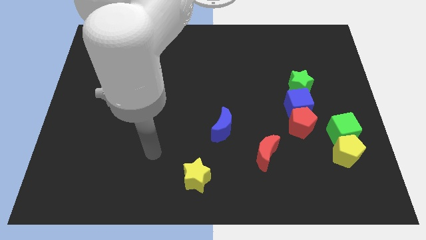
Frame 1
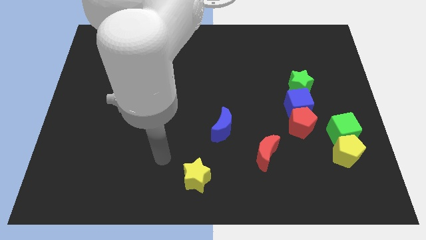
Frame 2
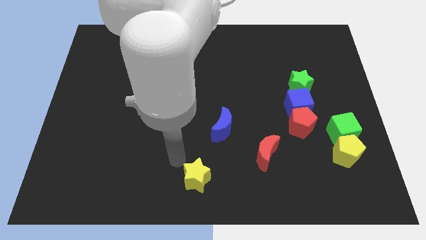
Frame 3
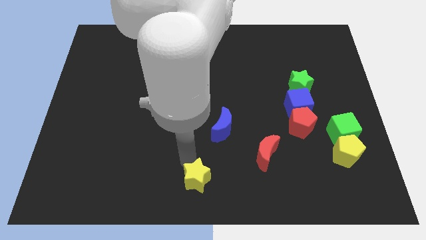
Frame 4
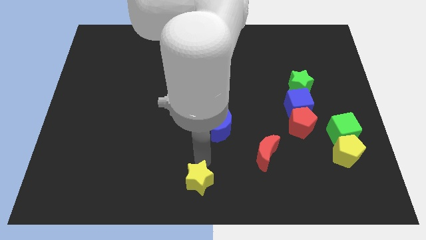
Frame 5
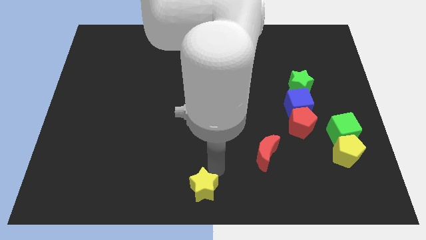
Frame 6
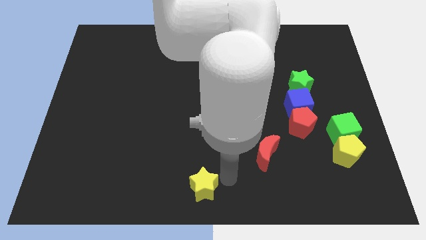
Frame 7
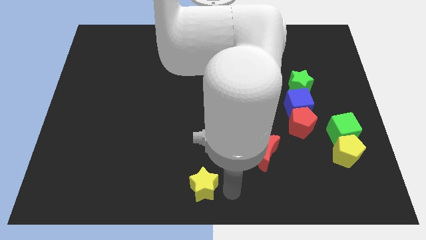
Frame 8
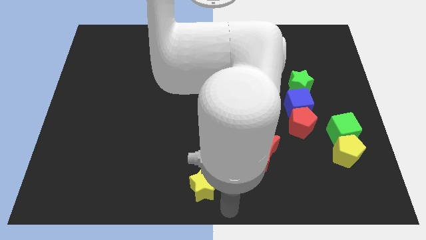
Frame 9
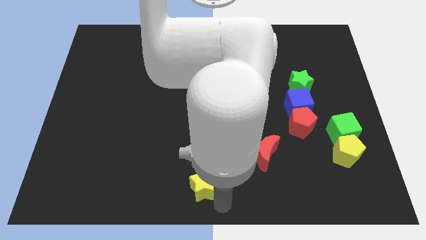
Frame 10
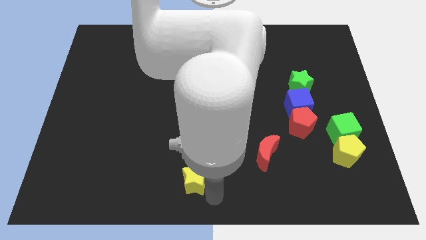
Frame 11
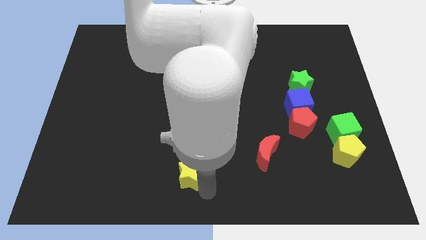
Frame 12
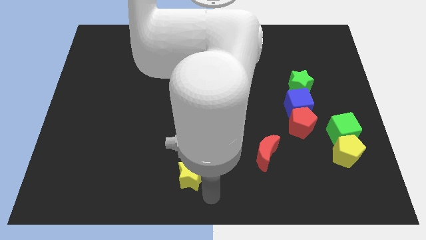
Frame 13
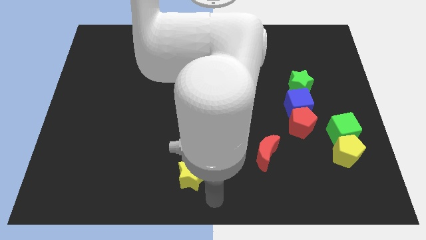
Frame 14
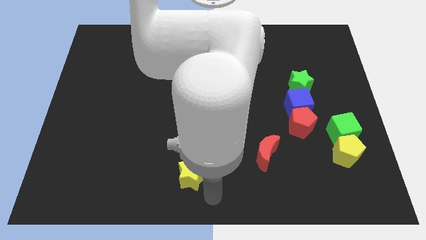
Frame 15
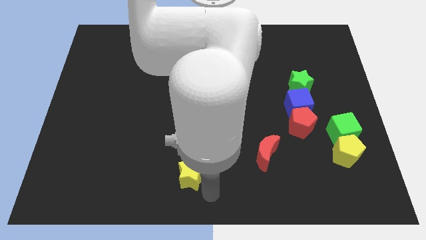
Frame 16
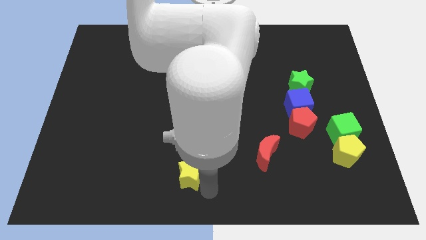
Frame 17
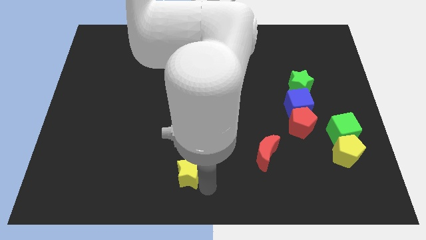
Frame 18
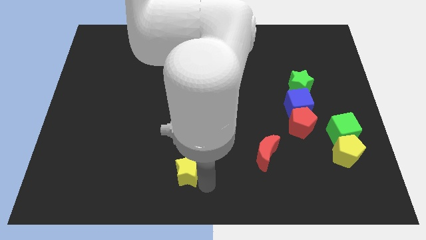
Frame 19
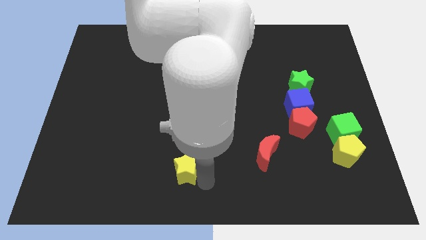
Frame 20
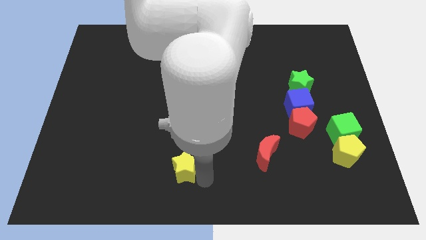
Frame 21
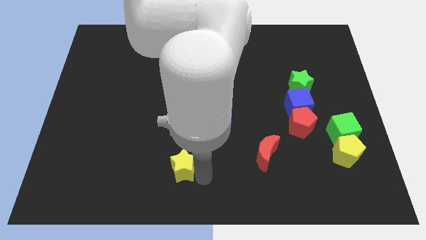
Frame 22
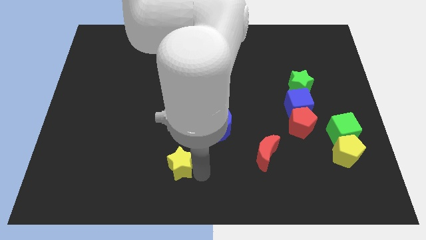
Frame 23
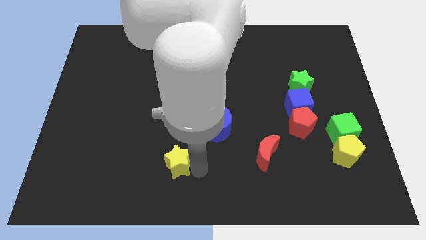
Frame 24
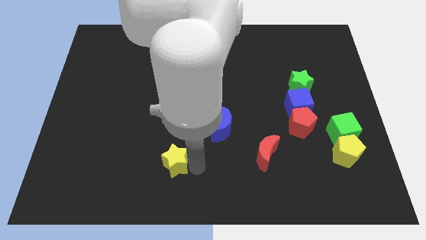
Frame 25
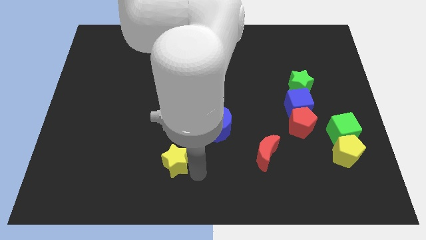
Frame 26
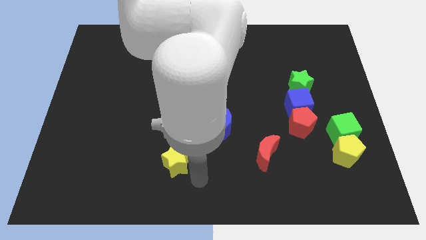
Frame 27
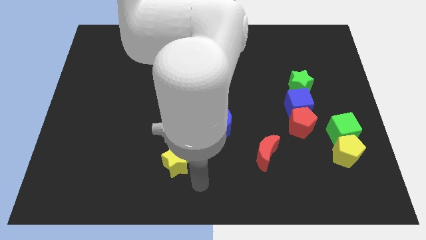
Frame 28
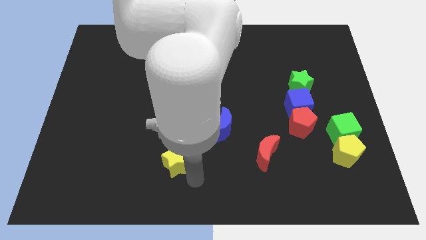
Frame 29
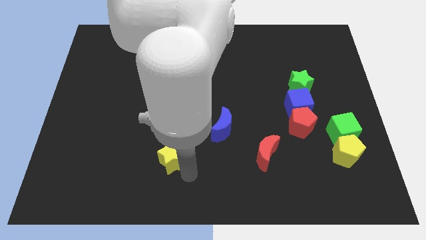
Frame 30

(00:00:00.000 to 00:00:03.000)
move the yellow star up and to the left diagonally a little

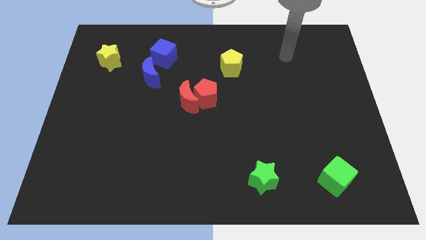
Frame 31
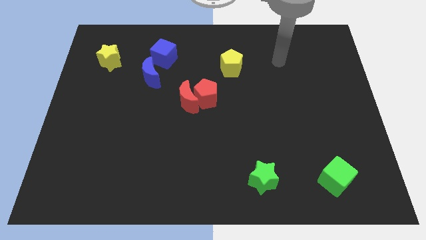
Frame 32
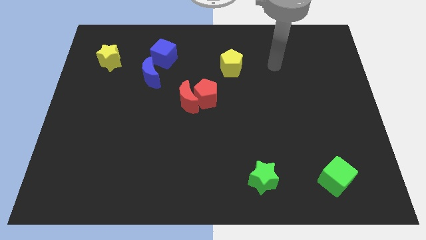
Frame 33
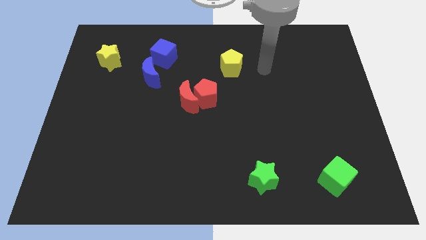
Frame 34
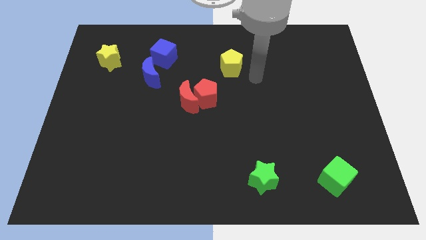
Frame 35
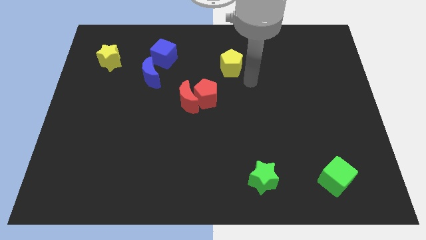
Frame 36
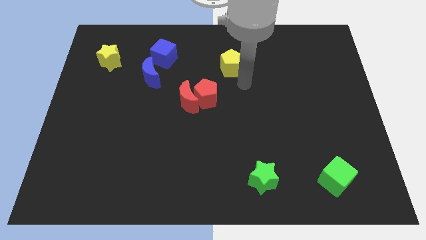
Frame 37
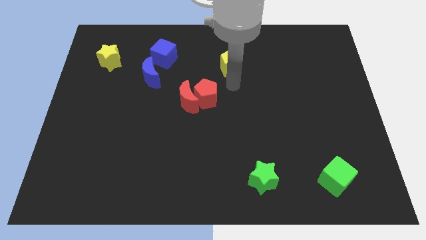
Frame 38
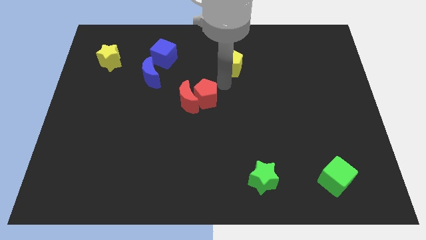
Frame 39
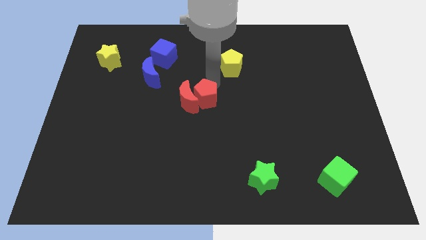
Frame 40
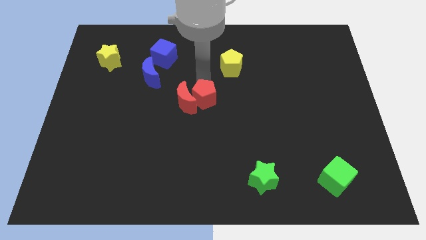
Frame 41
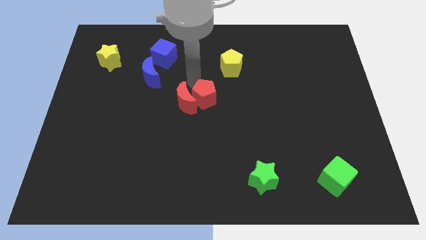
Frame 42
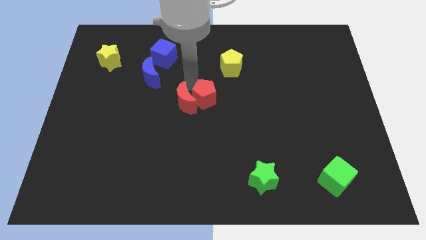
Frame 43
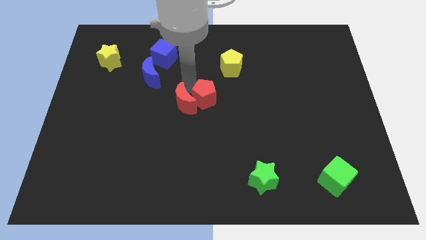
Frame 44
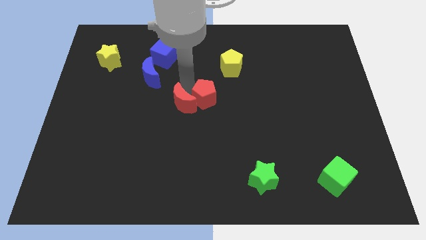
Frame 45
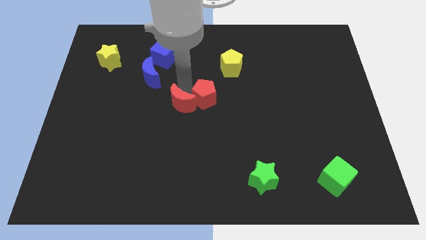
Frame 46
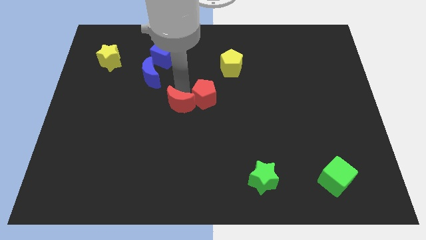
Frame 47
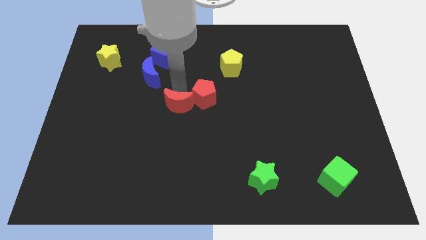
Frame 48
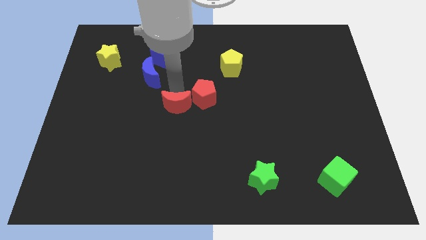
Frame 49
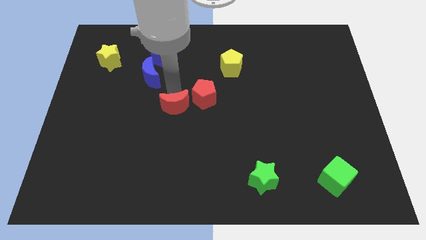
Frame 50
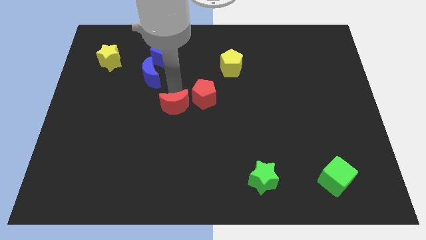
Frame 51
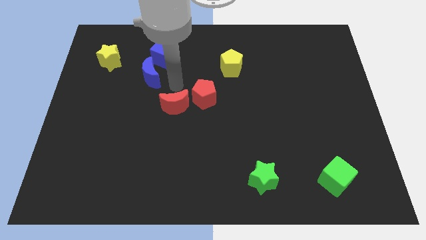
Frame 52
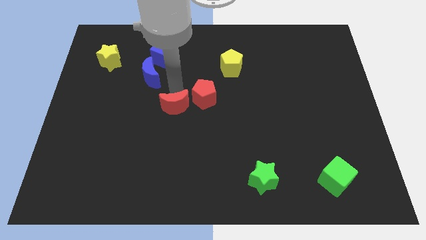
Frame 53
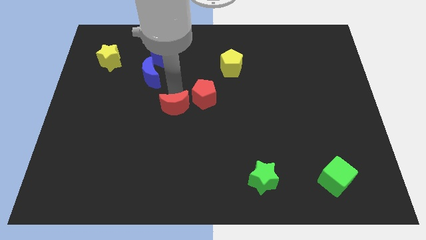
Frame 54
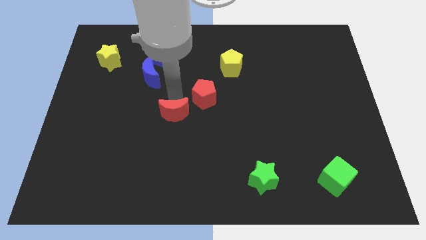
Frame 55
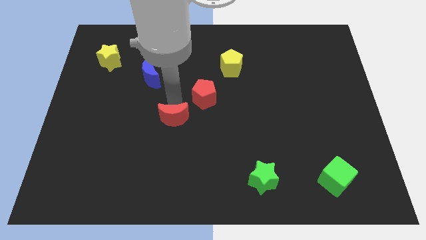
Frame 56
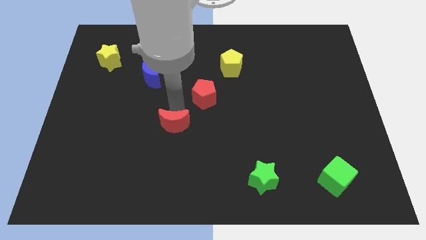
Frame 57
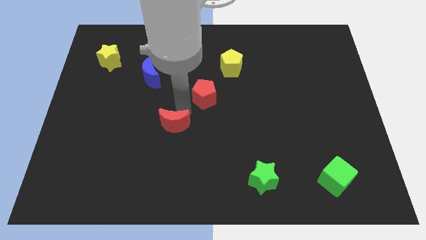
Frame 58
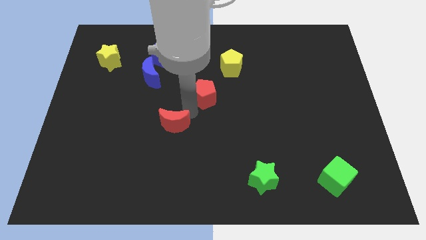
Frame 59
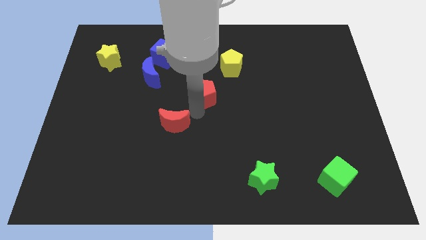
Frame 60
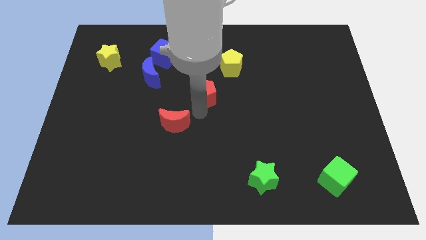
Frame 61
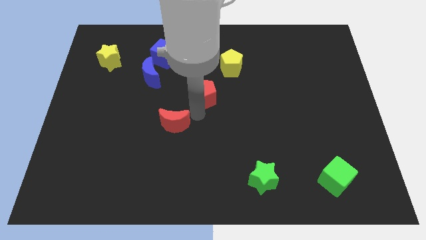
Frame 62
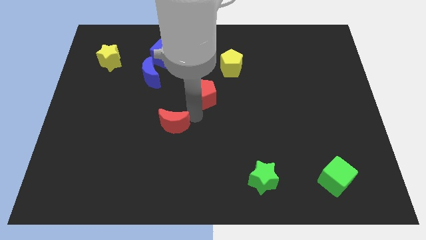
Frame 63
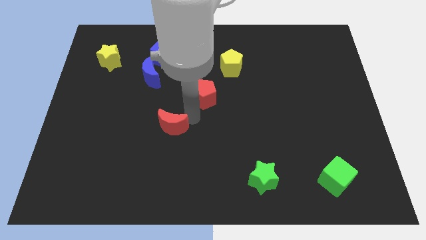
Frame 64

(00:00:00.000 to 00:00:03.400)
move the red moon a little bit downwards and to the left diagonally

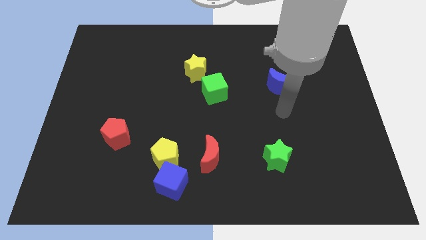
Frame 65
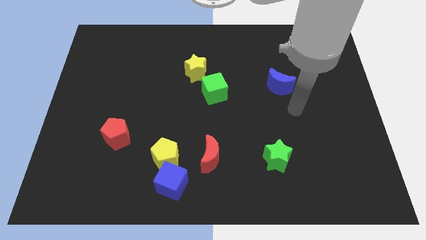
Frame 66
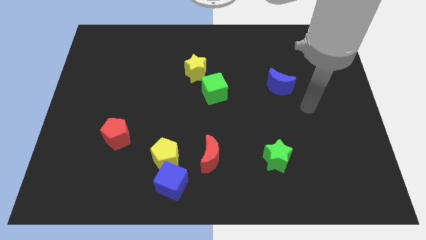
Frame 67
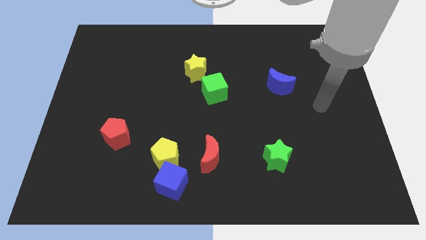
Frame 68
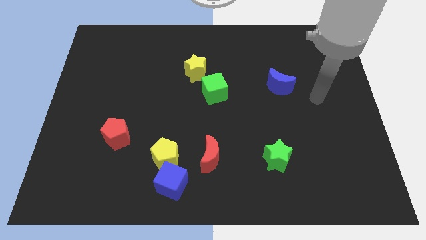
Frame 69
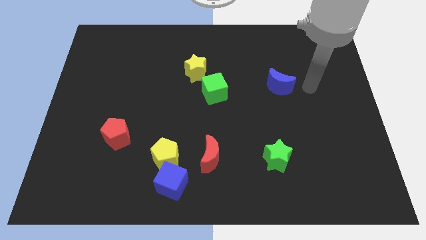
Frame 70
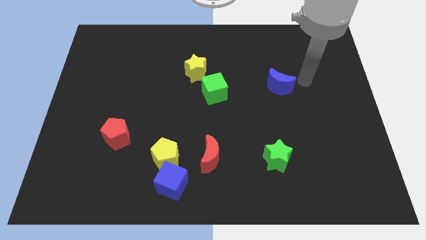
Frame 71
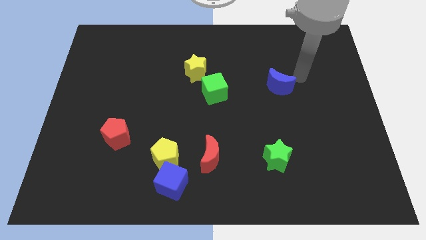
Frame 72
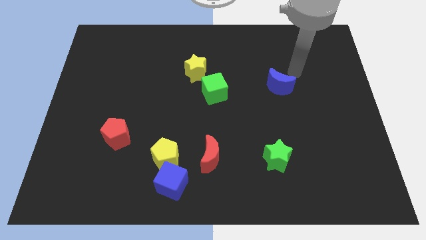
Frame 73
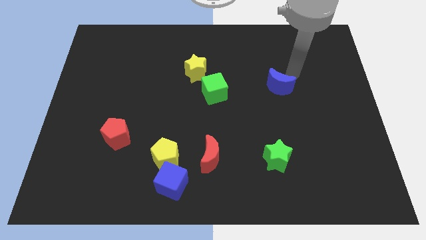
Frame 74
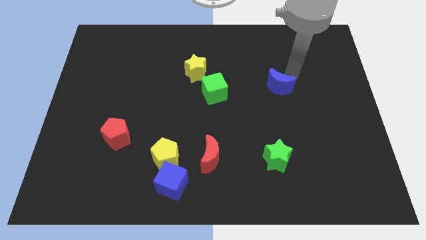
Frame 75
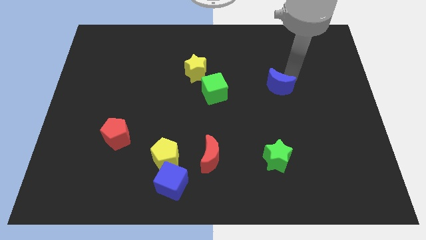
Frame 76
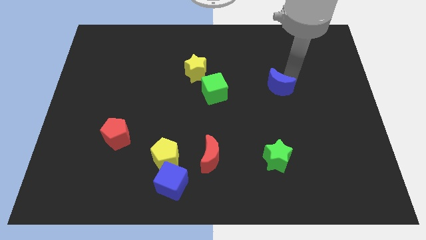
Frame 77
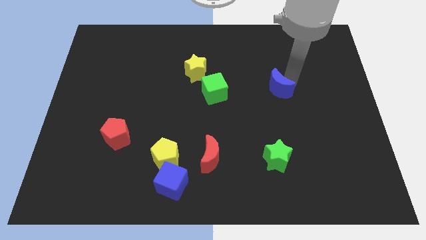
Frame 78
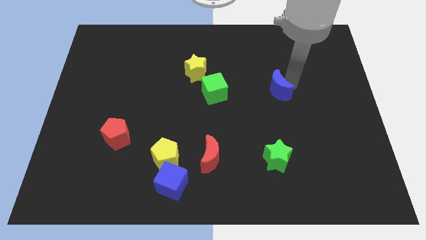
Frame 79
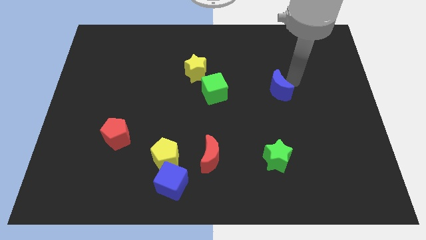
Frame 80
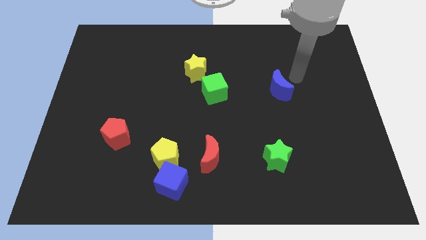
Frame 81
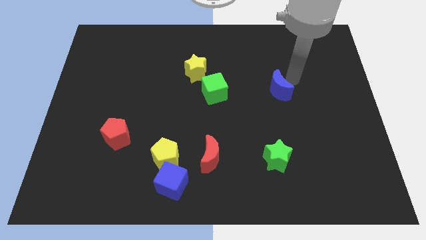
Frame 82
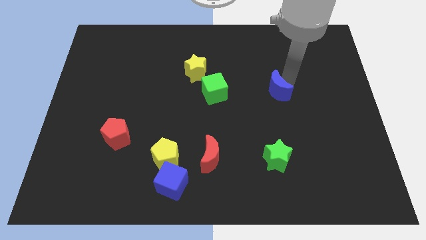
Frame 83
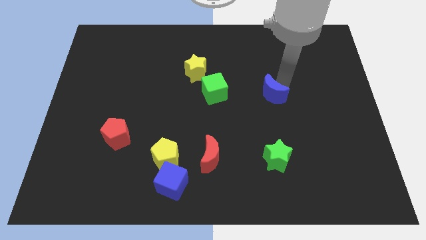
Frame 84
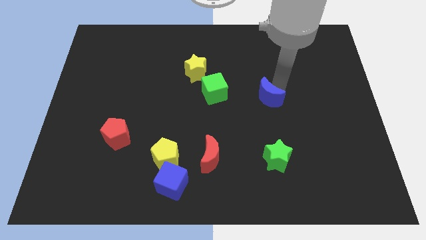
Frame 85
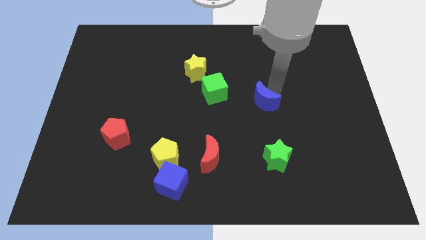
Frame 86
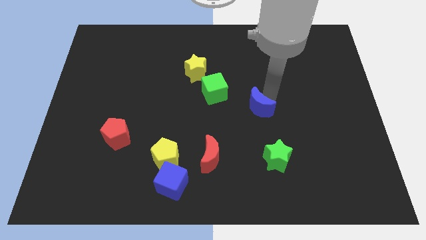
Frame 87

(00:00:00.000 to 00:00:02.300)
slightly push the blue moon diagonally downwards and to the left
